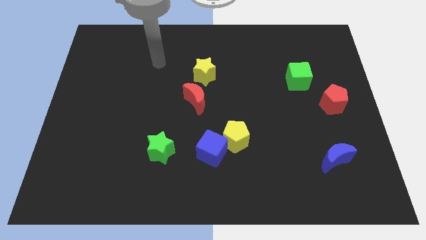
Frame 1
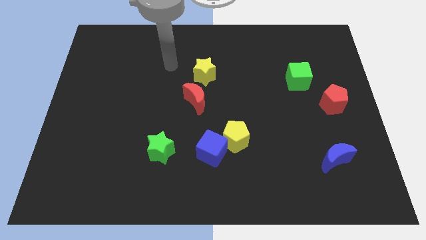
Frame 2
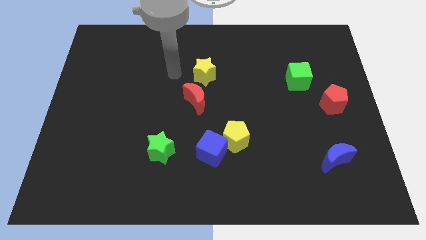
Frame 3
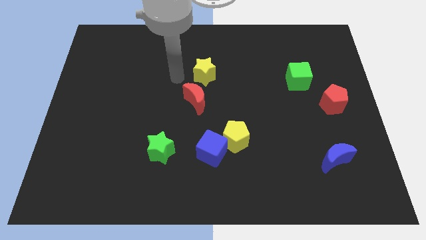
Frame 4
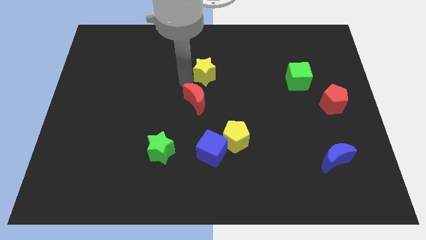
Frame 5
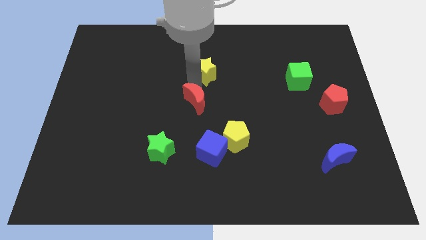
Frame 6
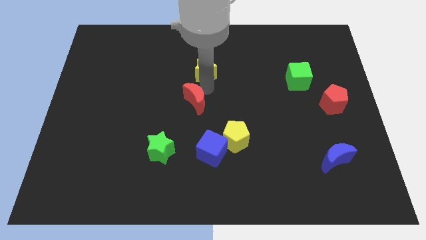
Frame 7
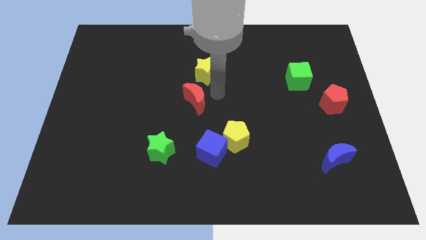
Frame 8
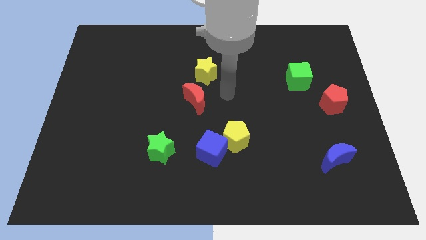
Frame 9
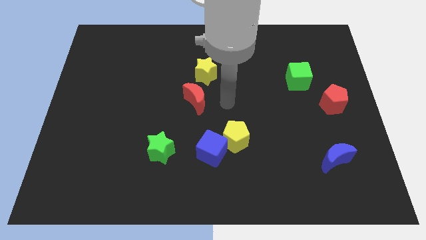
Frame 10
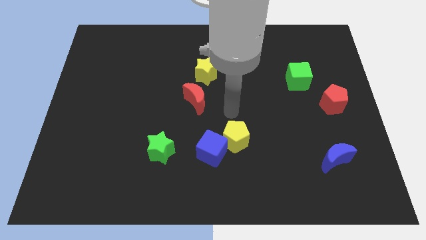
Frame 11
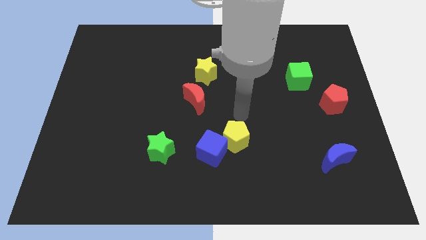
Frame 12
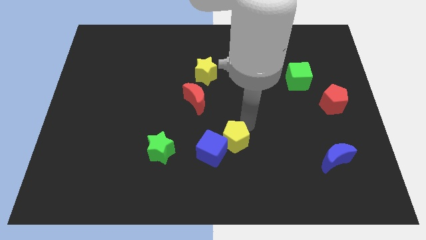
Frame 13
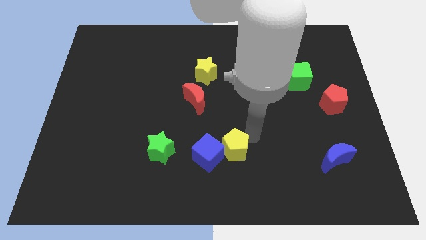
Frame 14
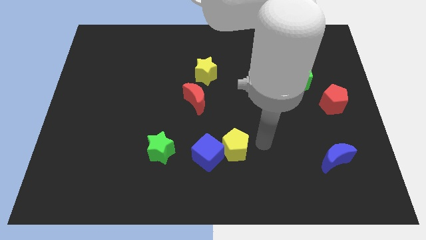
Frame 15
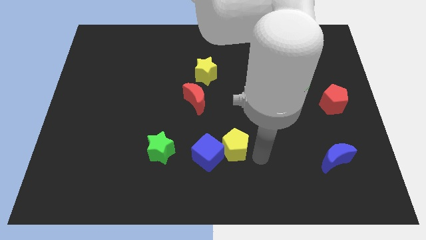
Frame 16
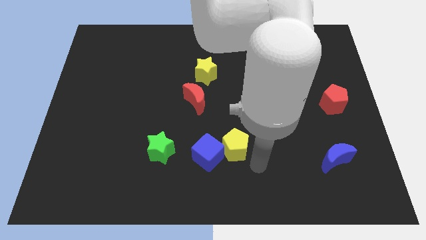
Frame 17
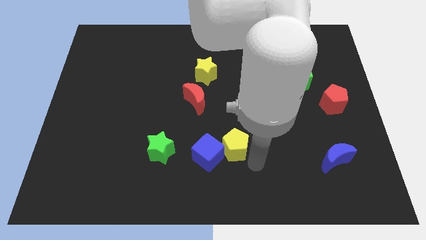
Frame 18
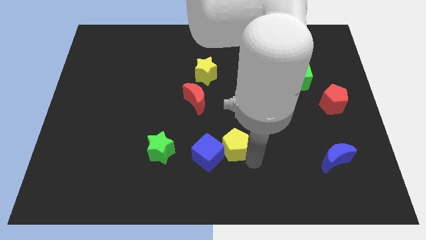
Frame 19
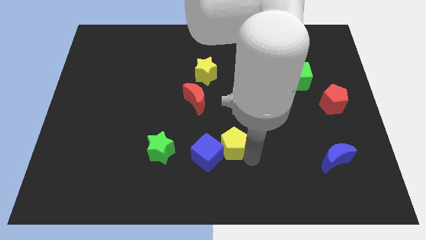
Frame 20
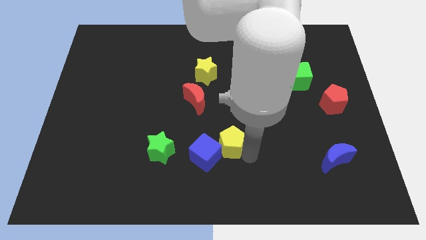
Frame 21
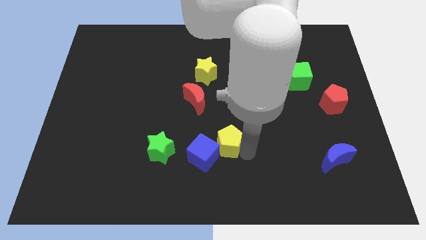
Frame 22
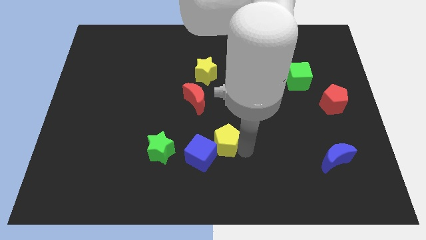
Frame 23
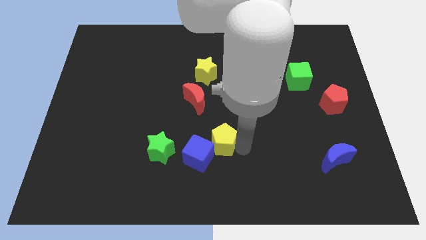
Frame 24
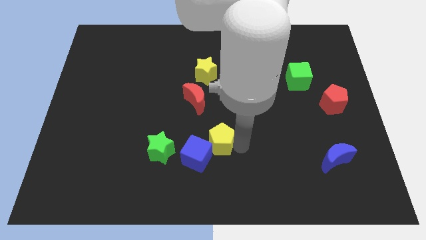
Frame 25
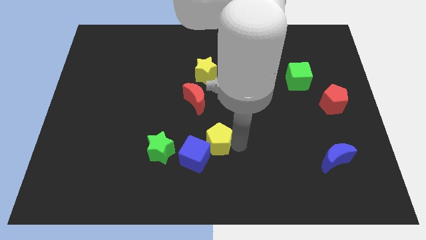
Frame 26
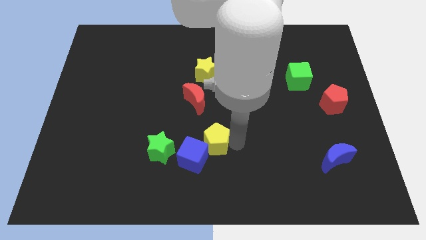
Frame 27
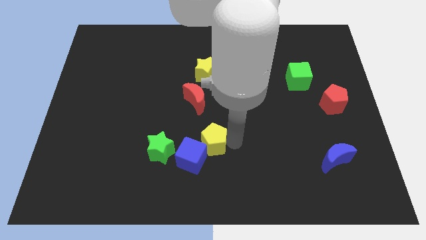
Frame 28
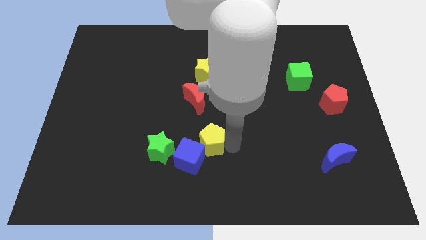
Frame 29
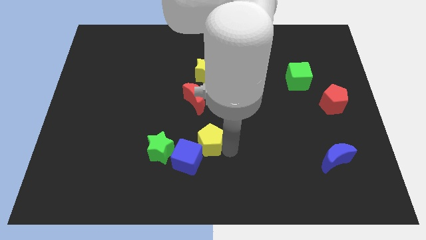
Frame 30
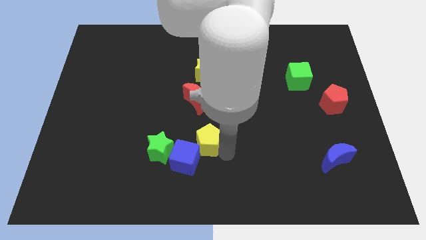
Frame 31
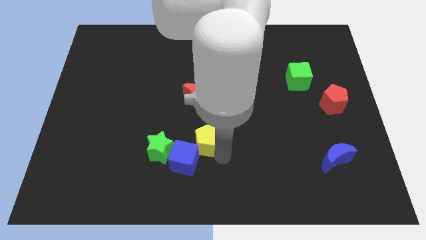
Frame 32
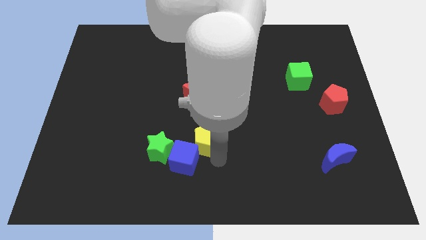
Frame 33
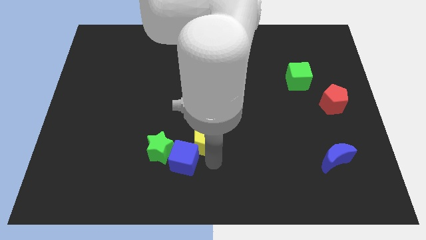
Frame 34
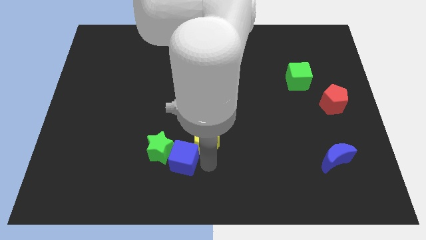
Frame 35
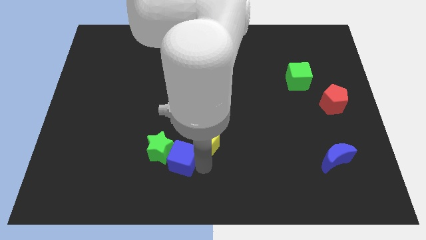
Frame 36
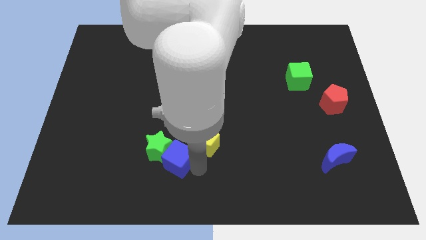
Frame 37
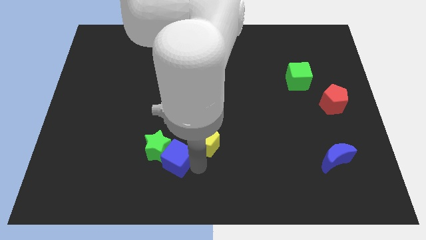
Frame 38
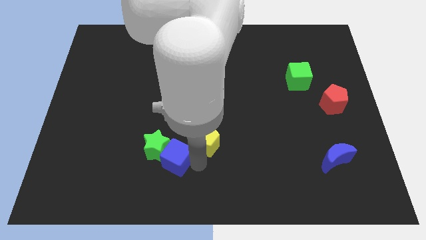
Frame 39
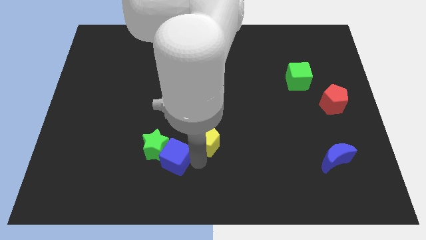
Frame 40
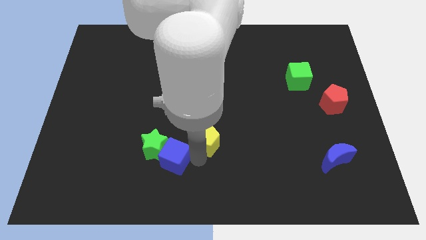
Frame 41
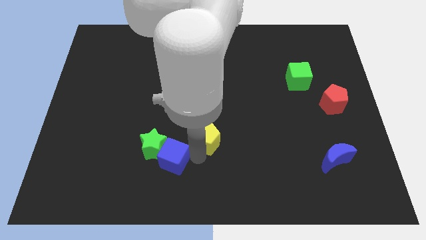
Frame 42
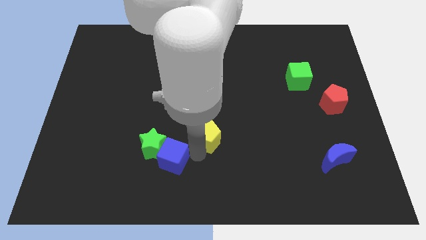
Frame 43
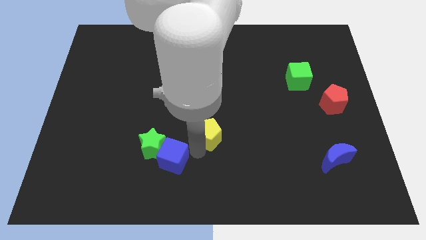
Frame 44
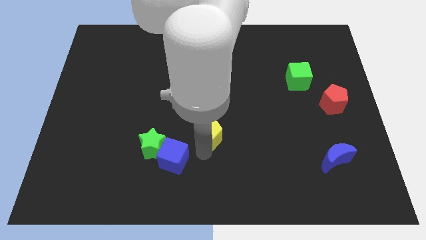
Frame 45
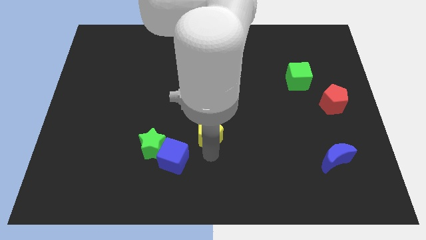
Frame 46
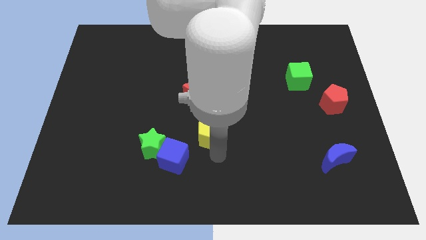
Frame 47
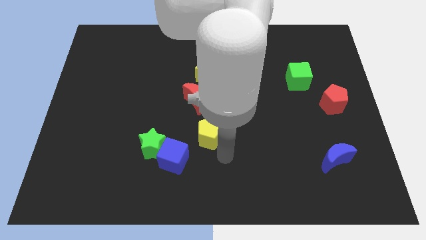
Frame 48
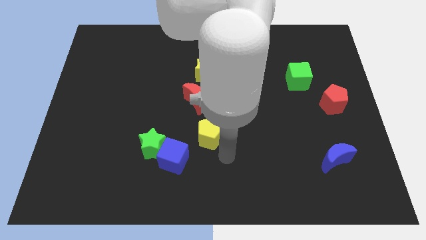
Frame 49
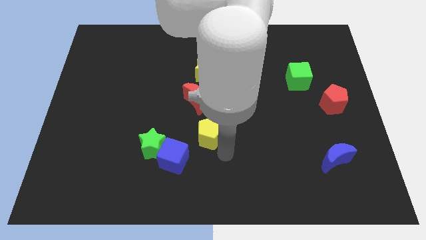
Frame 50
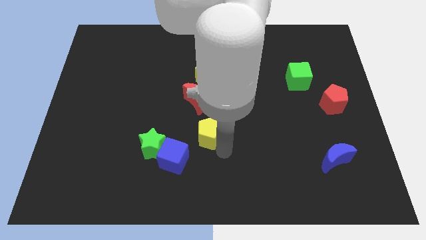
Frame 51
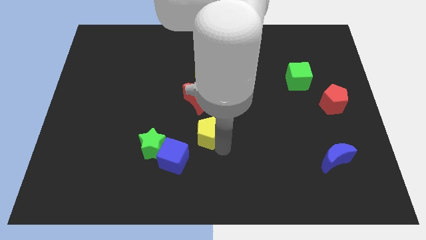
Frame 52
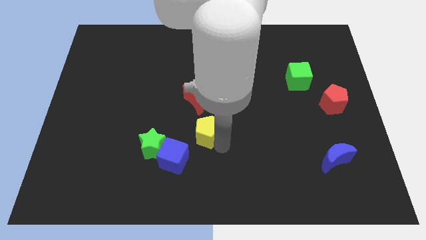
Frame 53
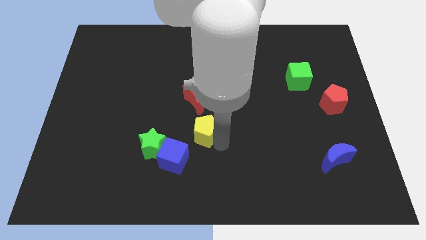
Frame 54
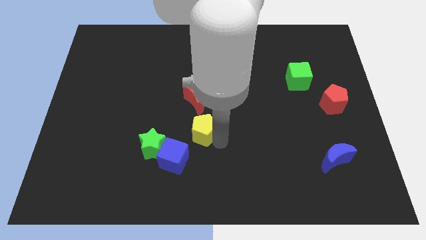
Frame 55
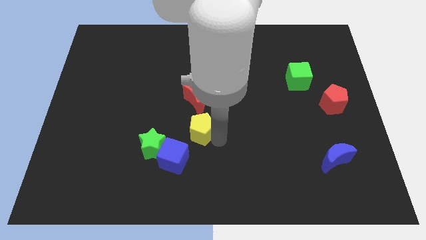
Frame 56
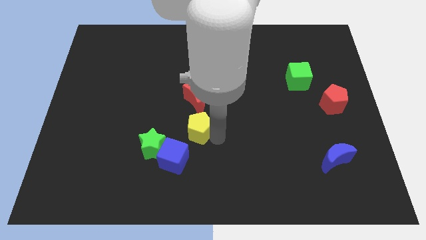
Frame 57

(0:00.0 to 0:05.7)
push the yellow pentagon a little upwards and left

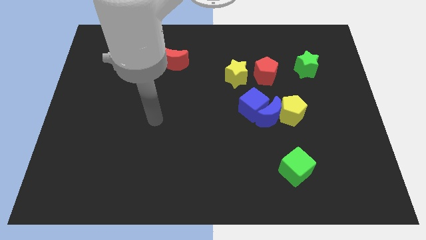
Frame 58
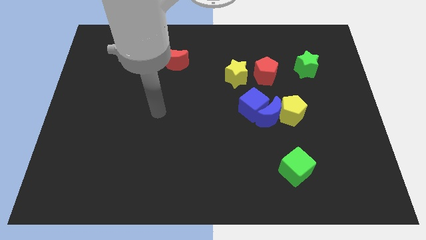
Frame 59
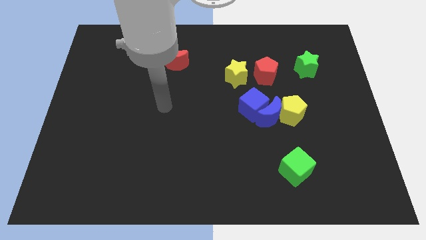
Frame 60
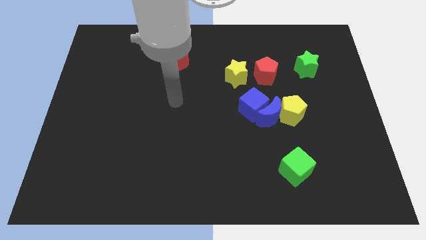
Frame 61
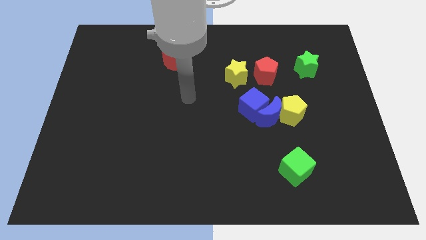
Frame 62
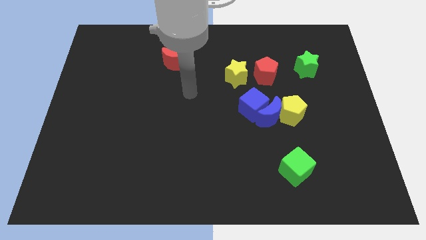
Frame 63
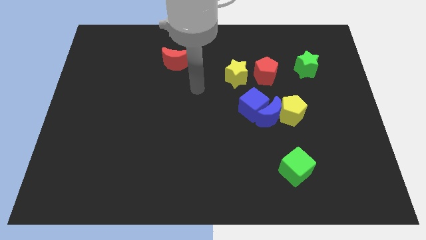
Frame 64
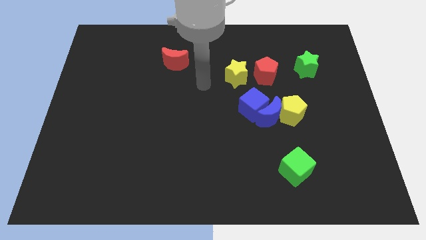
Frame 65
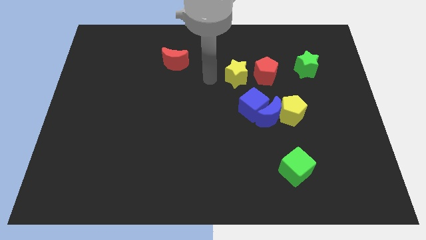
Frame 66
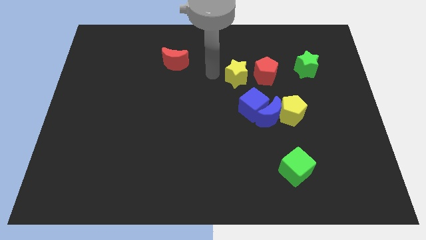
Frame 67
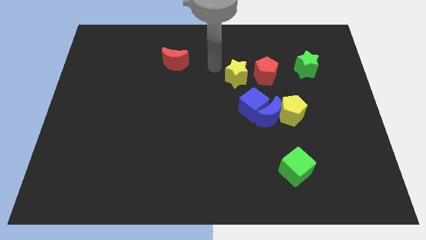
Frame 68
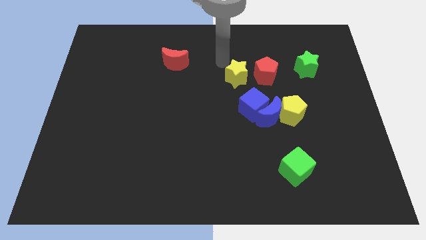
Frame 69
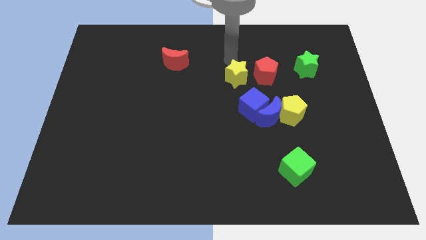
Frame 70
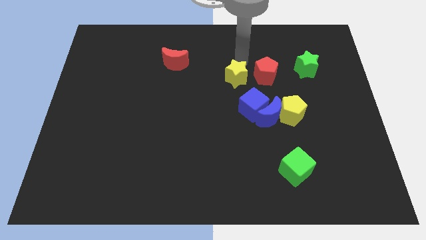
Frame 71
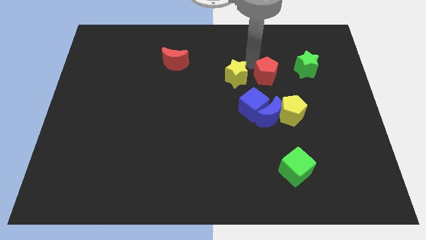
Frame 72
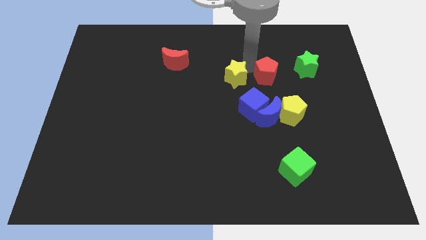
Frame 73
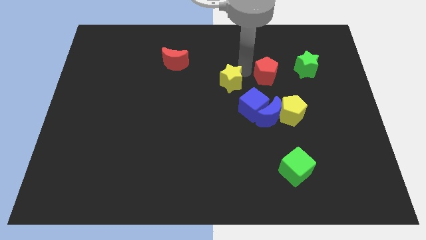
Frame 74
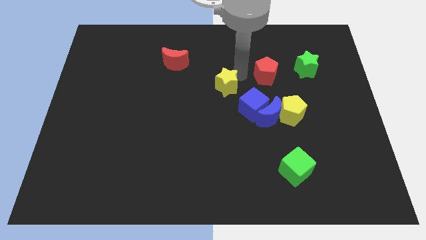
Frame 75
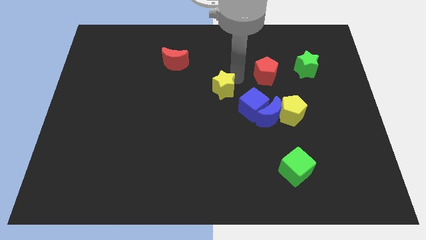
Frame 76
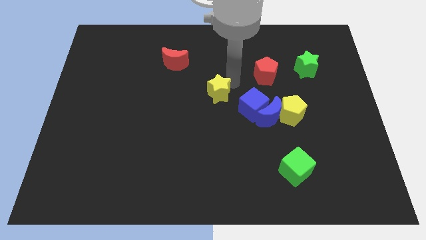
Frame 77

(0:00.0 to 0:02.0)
push the yellow star a little down and left
